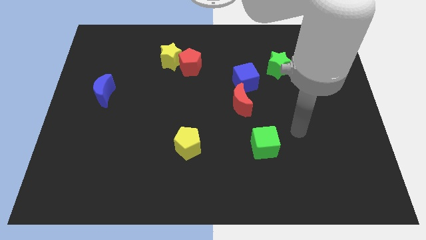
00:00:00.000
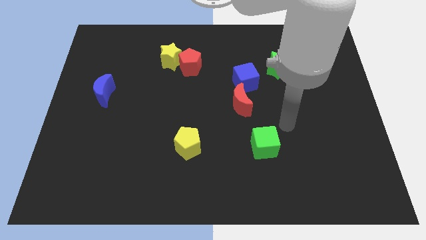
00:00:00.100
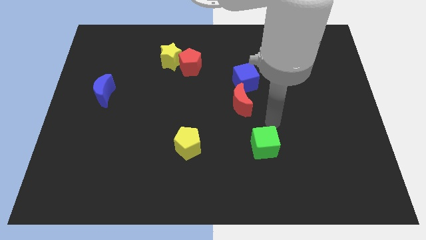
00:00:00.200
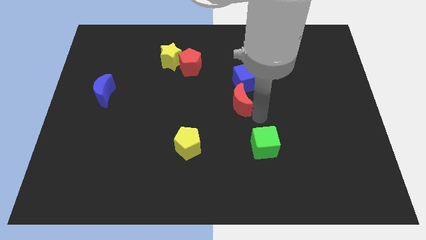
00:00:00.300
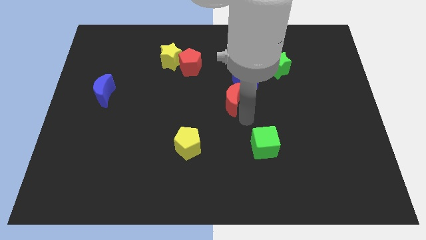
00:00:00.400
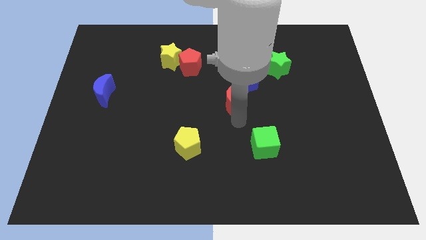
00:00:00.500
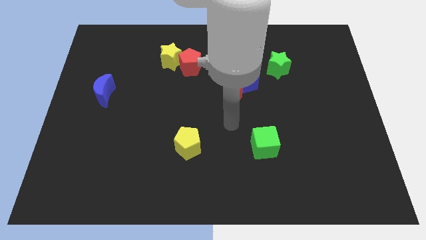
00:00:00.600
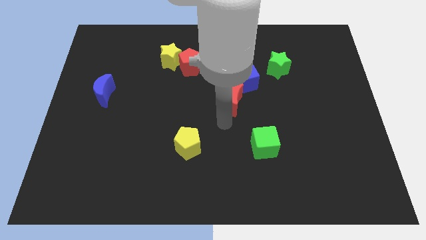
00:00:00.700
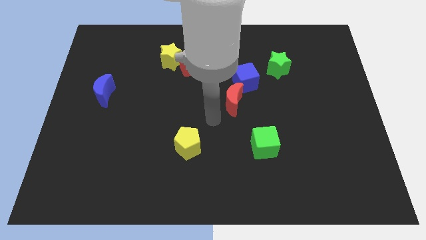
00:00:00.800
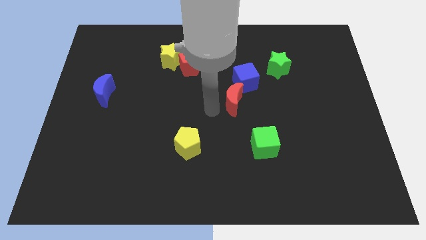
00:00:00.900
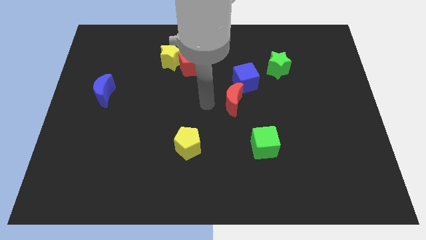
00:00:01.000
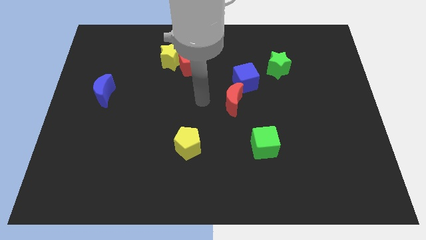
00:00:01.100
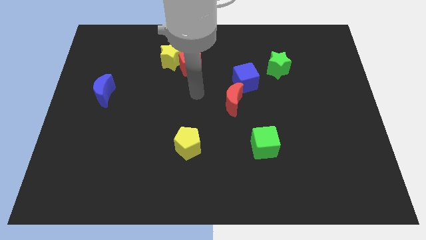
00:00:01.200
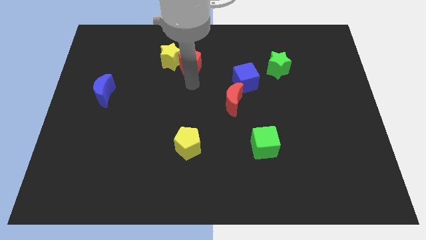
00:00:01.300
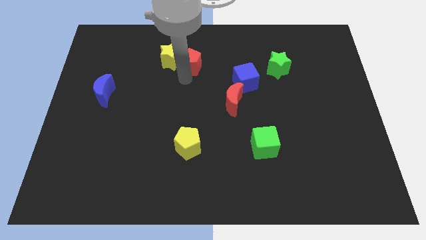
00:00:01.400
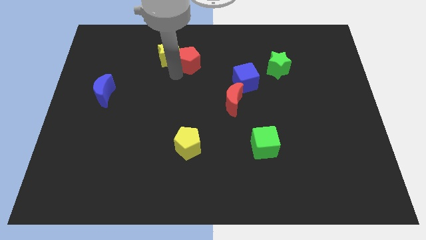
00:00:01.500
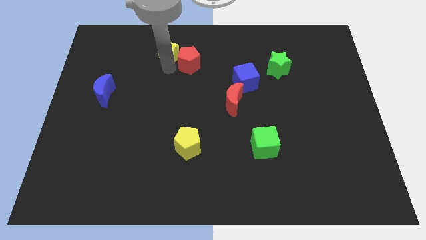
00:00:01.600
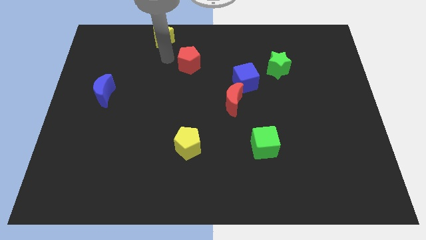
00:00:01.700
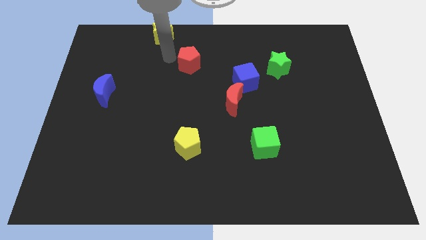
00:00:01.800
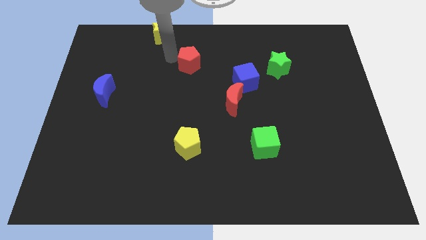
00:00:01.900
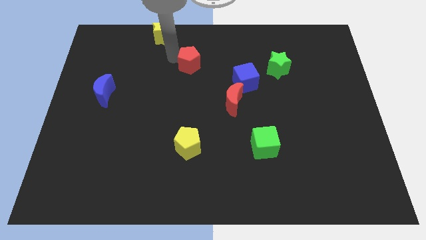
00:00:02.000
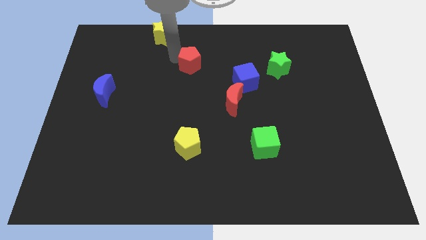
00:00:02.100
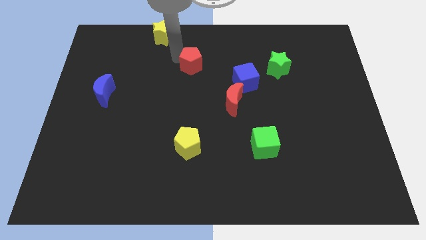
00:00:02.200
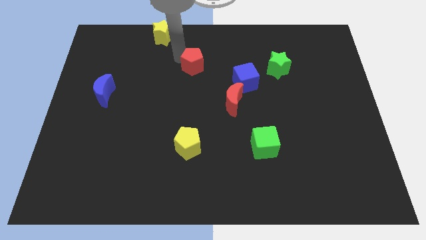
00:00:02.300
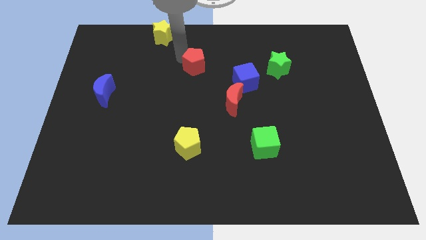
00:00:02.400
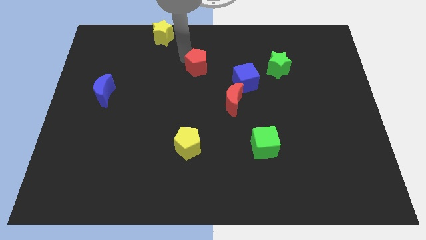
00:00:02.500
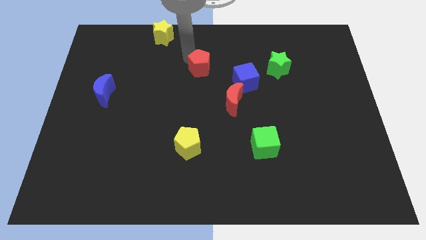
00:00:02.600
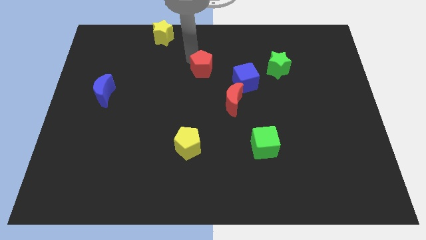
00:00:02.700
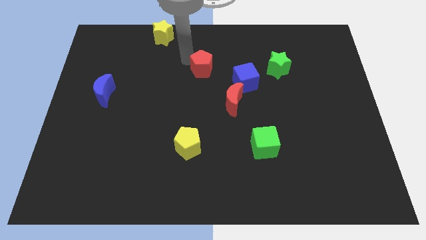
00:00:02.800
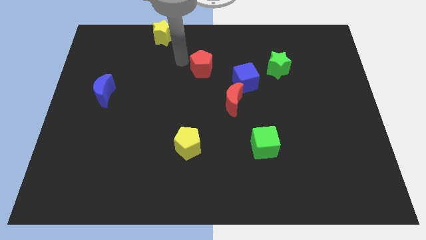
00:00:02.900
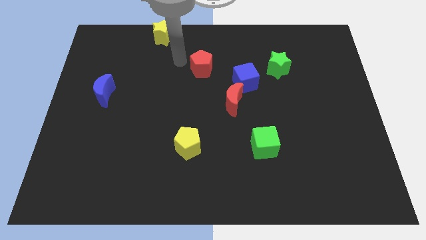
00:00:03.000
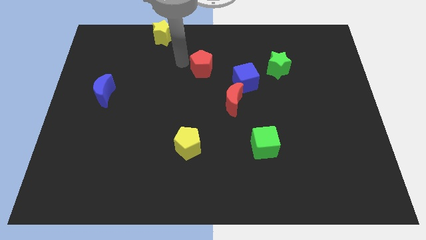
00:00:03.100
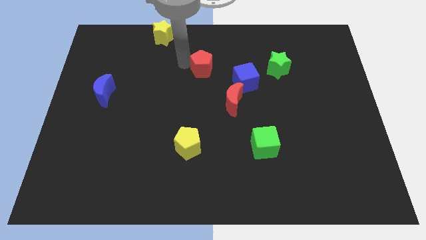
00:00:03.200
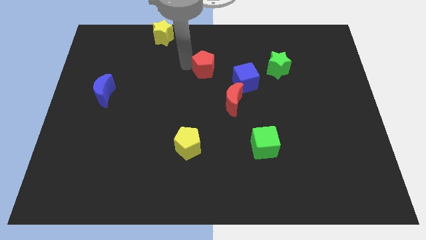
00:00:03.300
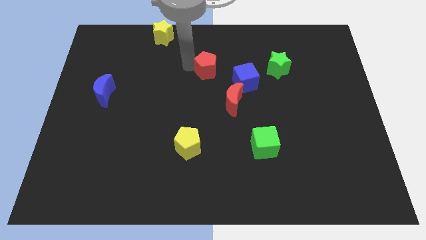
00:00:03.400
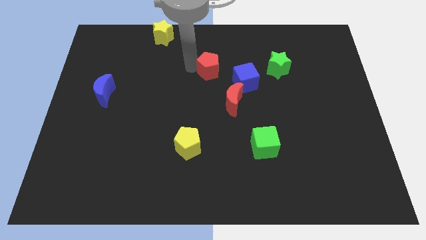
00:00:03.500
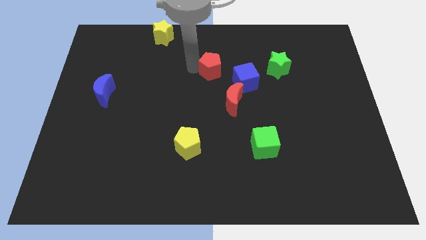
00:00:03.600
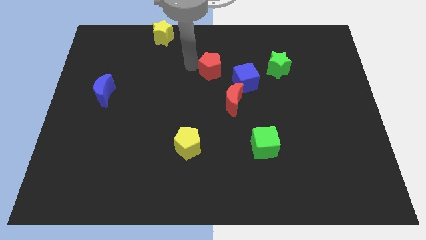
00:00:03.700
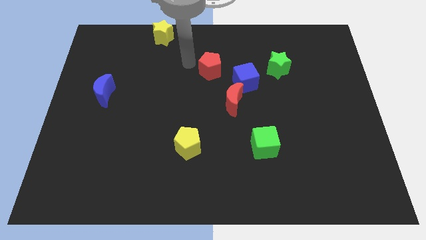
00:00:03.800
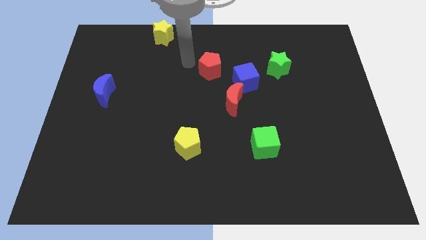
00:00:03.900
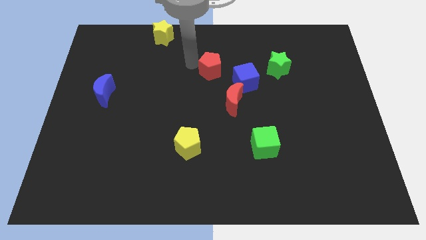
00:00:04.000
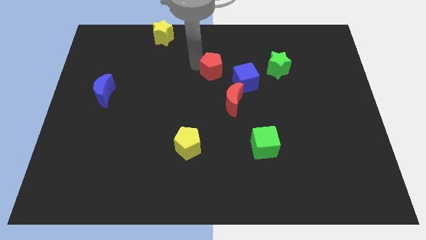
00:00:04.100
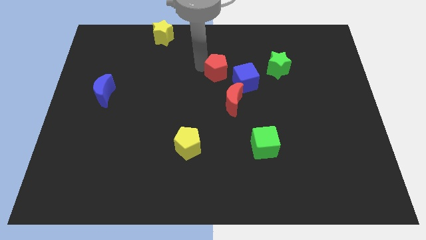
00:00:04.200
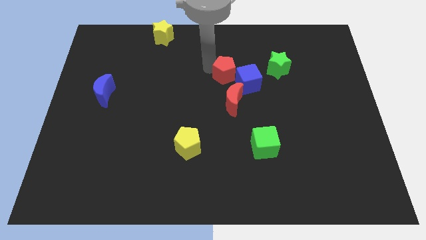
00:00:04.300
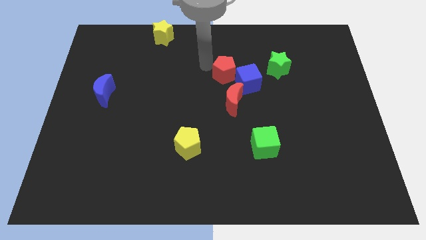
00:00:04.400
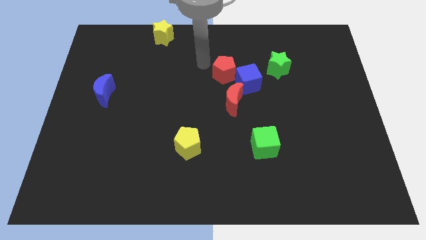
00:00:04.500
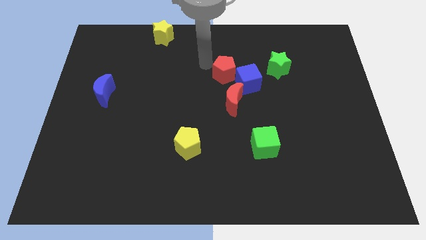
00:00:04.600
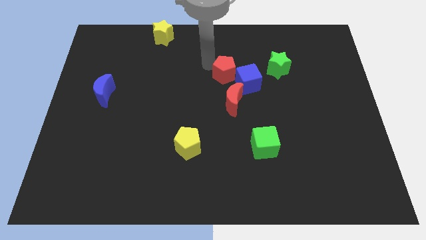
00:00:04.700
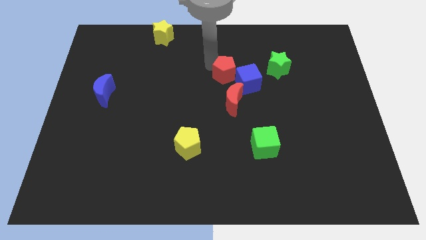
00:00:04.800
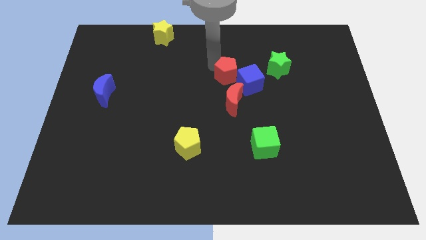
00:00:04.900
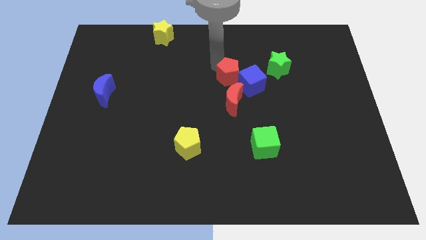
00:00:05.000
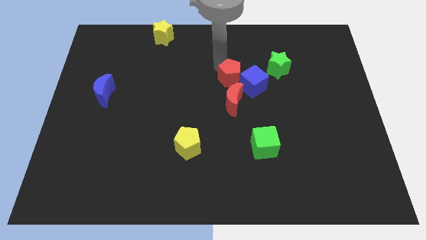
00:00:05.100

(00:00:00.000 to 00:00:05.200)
push the red pentagon to the blue cube

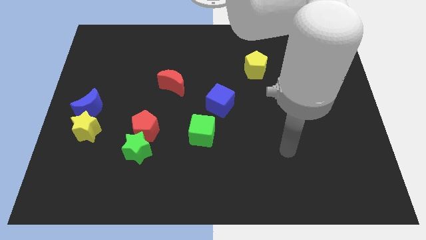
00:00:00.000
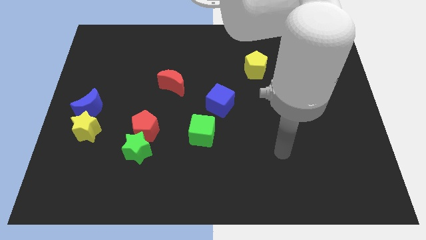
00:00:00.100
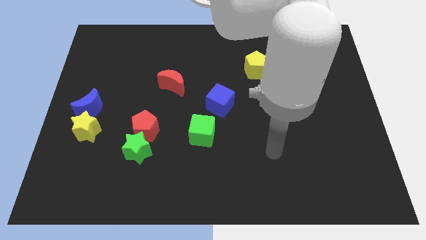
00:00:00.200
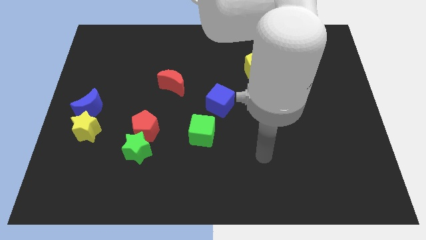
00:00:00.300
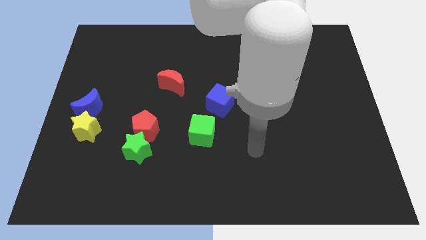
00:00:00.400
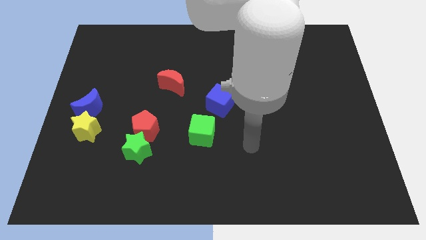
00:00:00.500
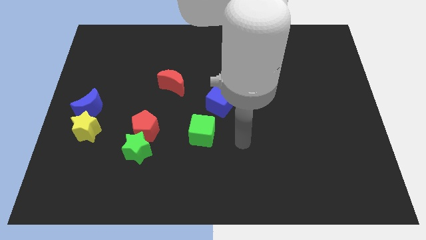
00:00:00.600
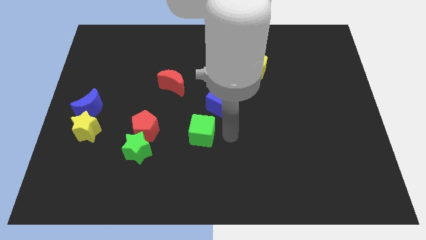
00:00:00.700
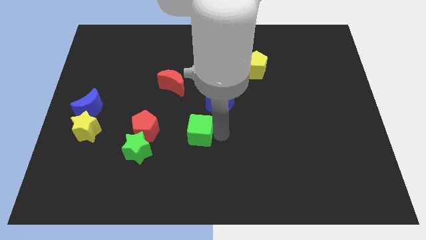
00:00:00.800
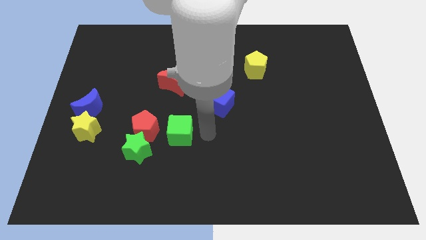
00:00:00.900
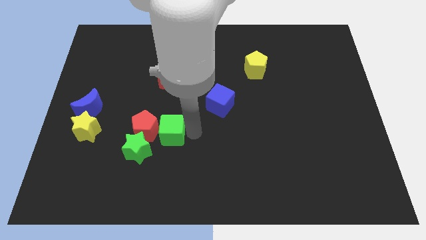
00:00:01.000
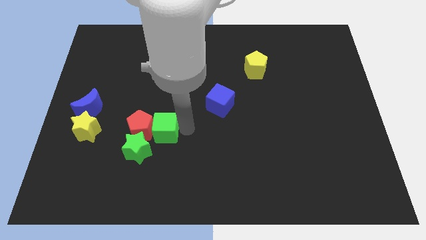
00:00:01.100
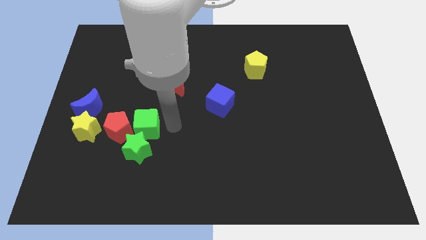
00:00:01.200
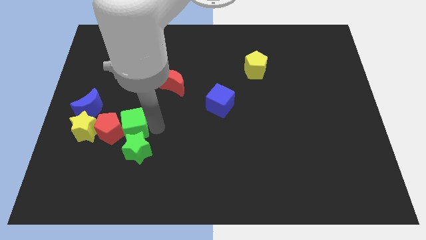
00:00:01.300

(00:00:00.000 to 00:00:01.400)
push the red pentagon towards the yellow star

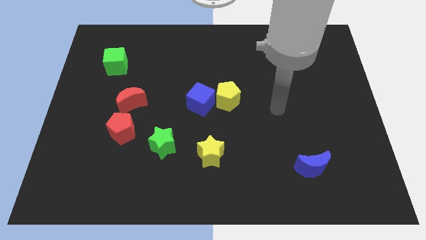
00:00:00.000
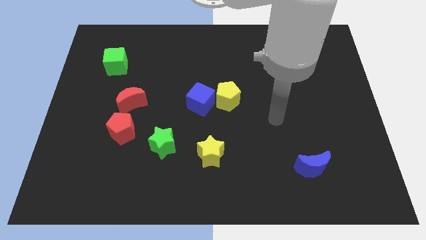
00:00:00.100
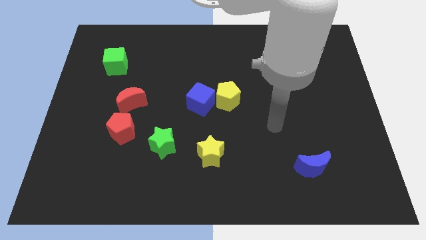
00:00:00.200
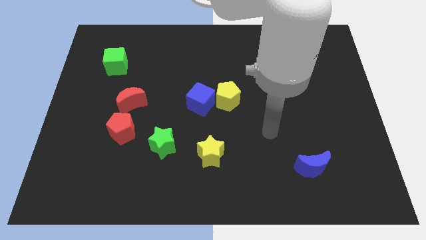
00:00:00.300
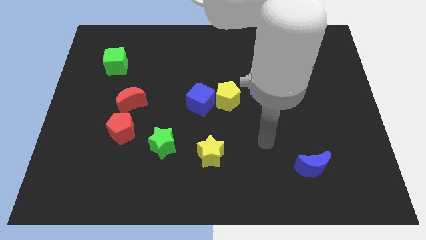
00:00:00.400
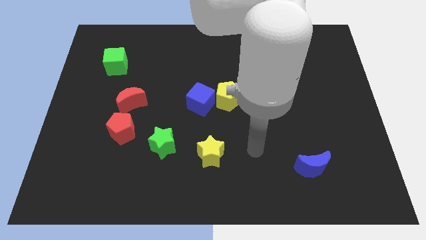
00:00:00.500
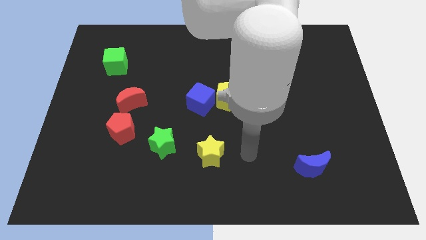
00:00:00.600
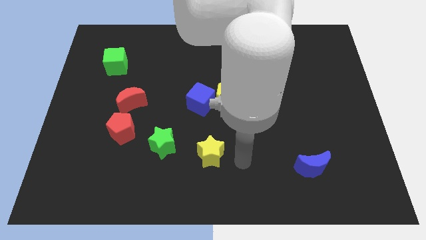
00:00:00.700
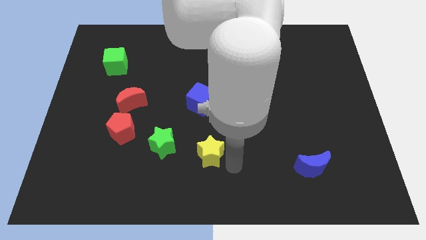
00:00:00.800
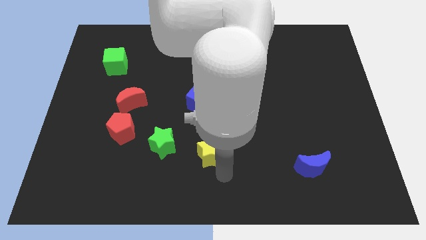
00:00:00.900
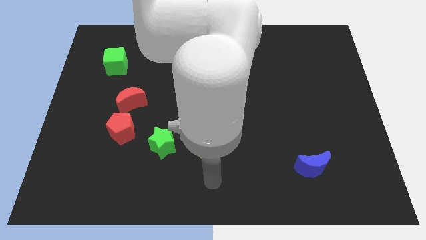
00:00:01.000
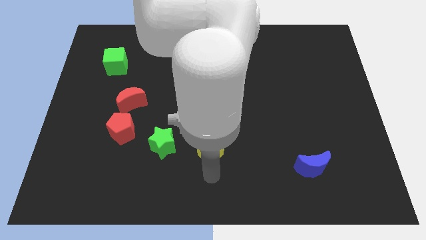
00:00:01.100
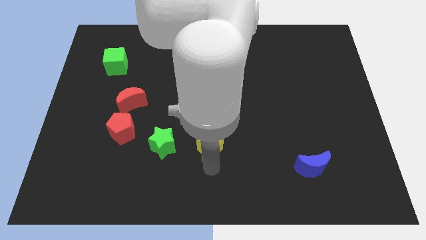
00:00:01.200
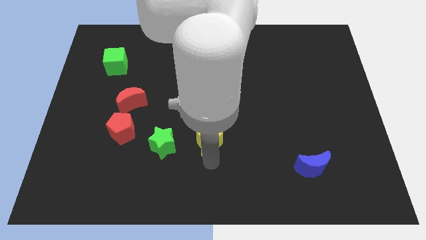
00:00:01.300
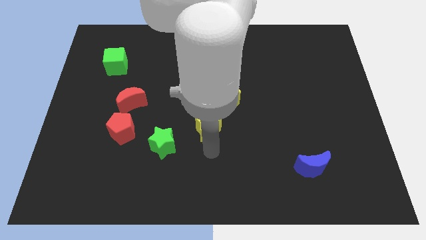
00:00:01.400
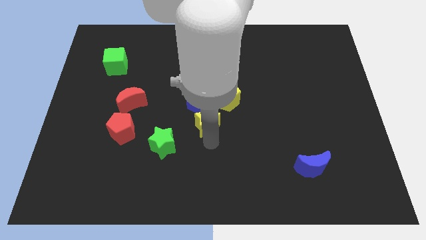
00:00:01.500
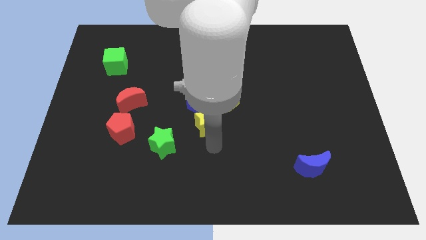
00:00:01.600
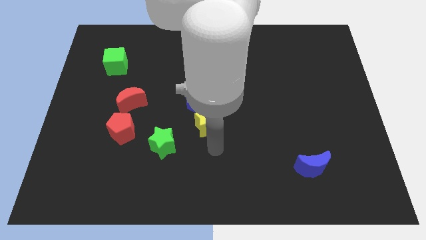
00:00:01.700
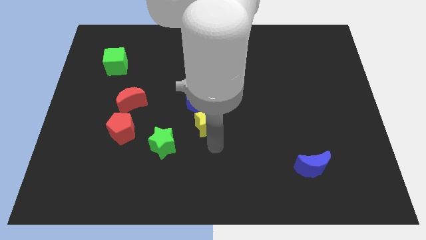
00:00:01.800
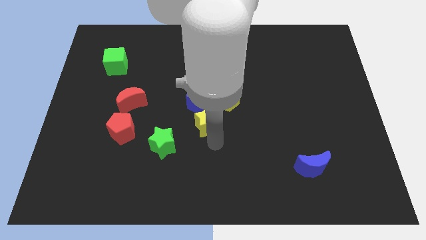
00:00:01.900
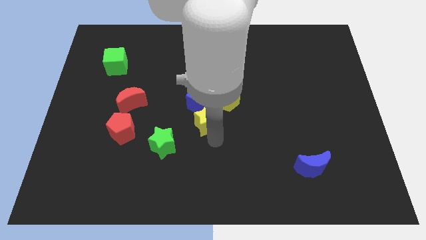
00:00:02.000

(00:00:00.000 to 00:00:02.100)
put the yellow star to the blue cube
